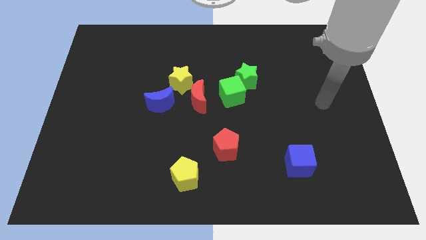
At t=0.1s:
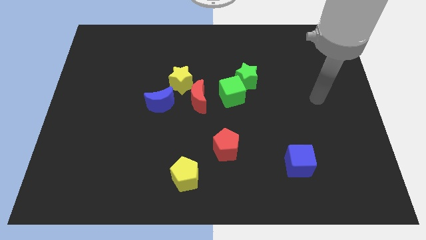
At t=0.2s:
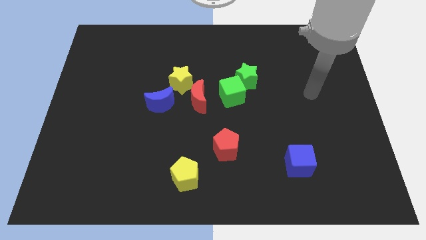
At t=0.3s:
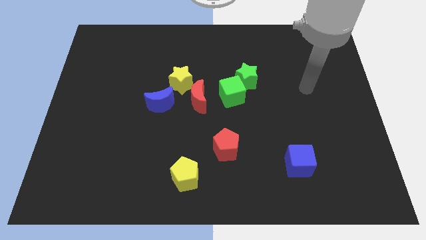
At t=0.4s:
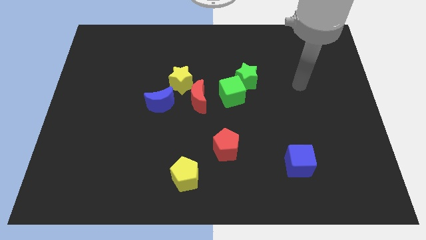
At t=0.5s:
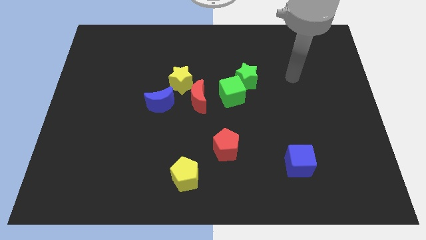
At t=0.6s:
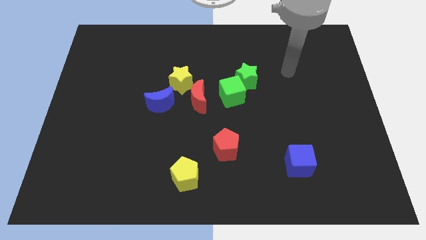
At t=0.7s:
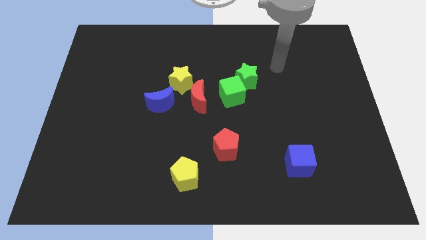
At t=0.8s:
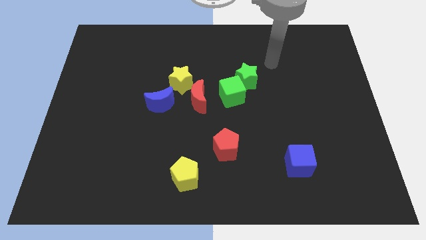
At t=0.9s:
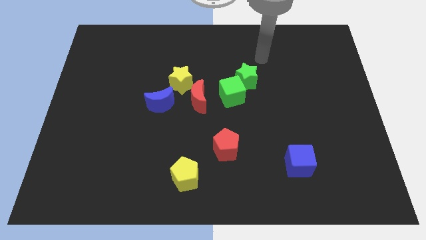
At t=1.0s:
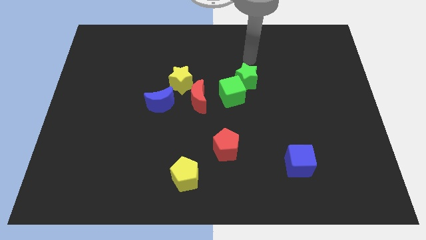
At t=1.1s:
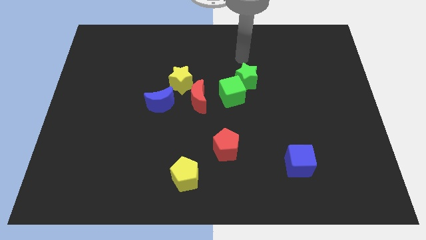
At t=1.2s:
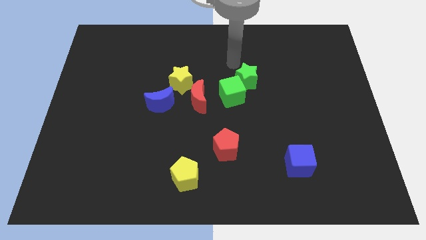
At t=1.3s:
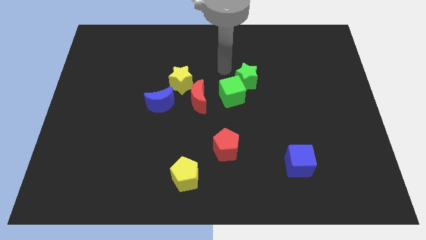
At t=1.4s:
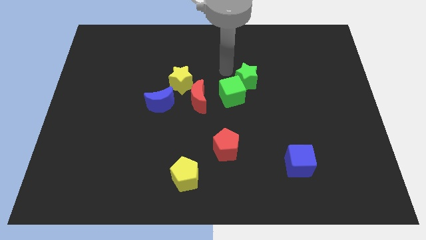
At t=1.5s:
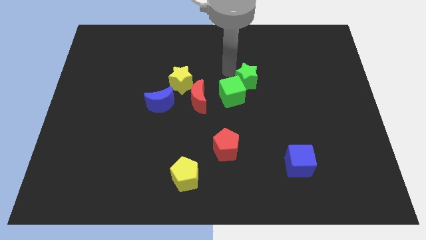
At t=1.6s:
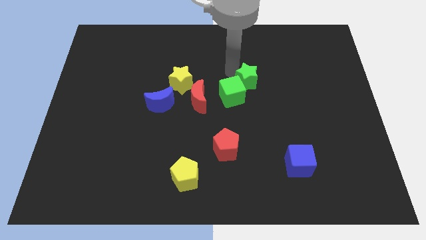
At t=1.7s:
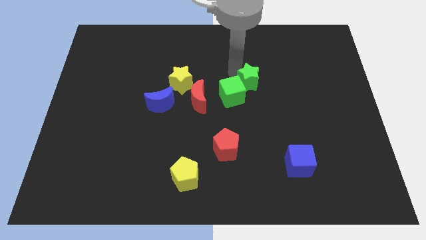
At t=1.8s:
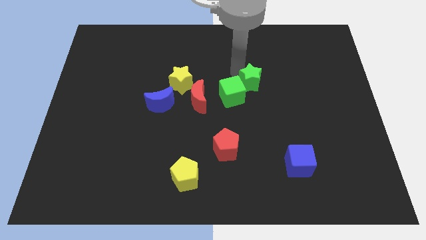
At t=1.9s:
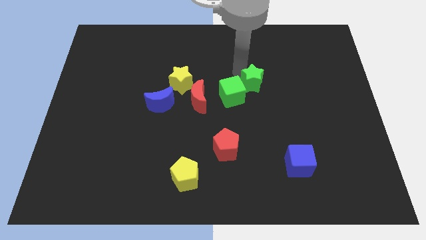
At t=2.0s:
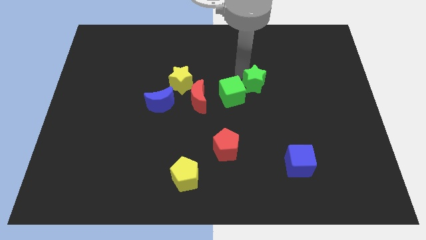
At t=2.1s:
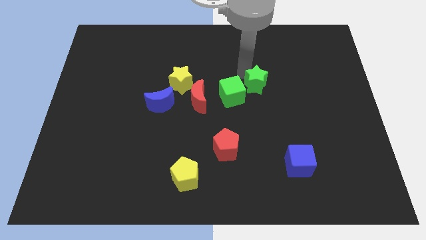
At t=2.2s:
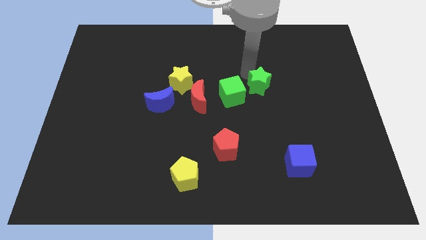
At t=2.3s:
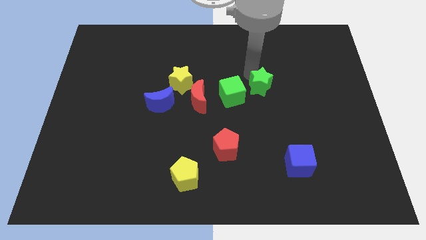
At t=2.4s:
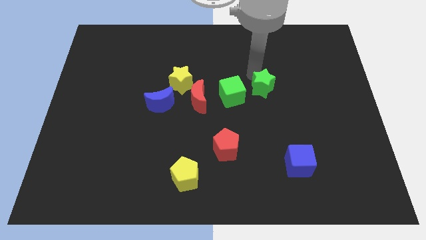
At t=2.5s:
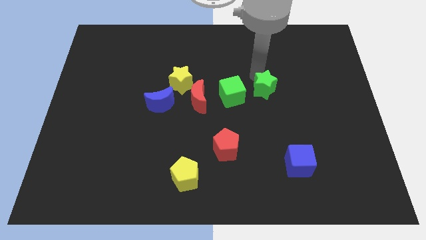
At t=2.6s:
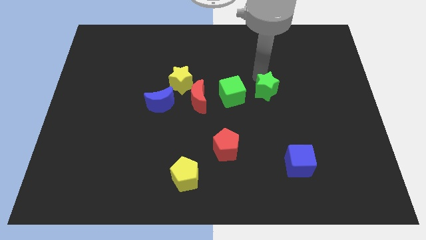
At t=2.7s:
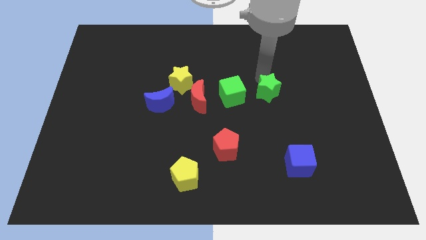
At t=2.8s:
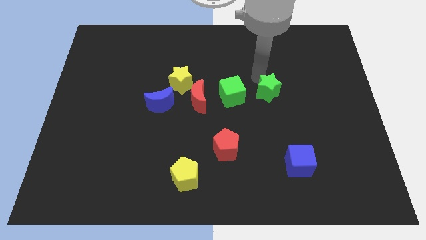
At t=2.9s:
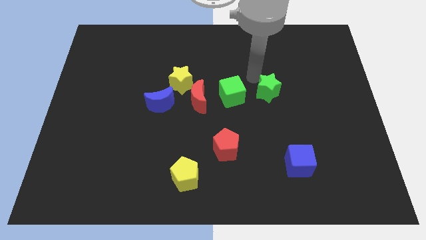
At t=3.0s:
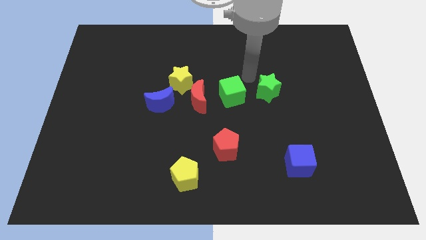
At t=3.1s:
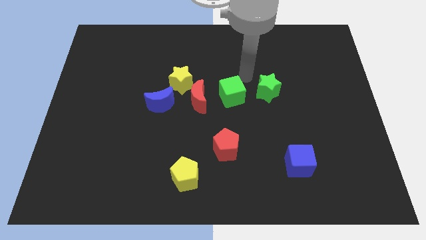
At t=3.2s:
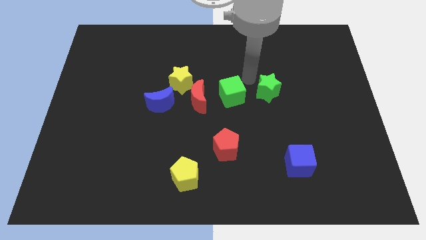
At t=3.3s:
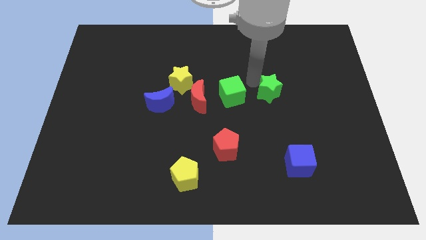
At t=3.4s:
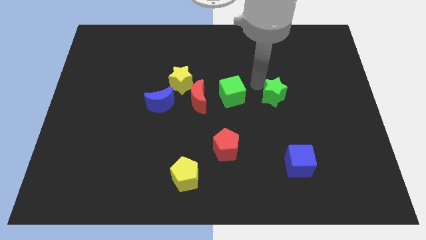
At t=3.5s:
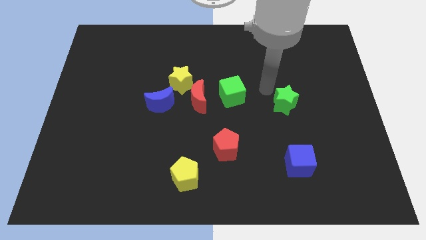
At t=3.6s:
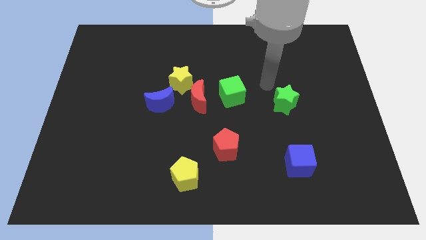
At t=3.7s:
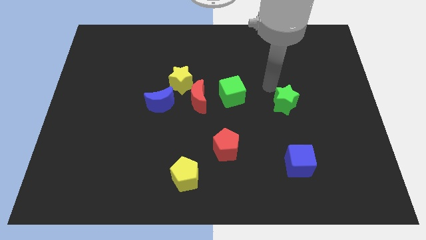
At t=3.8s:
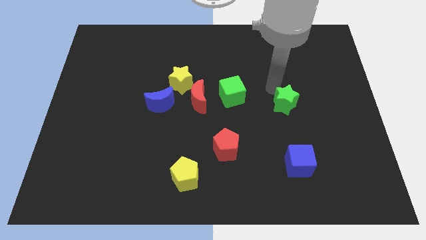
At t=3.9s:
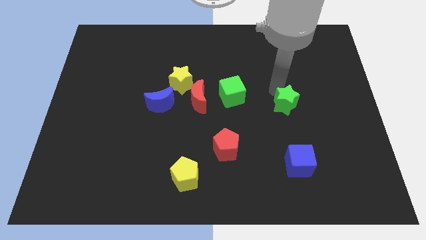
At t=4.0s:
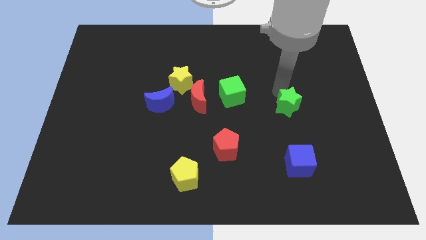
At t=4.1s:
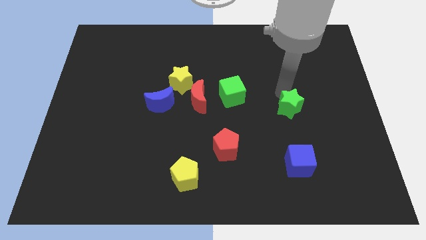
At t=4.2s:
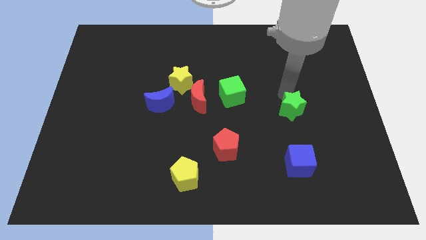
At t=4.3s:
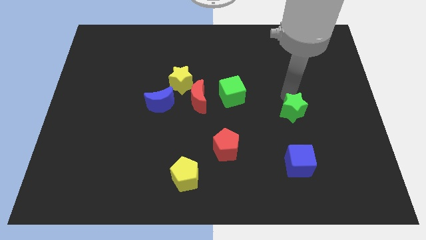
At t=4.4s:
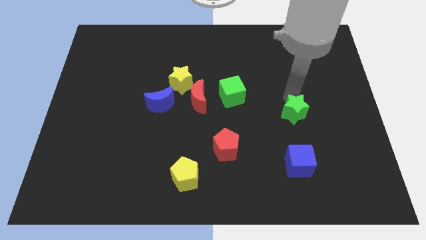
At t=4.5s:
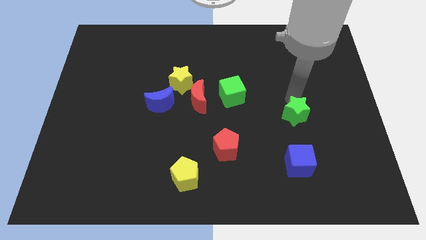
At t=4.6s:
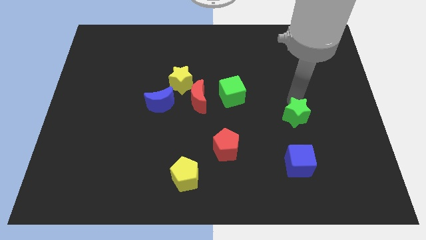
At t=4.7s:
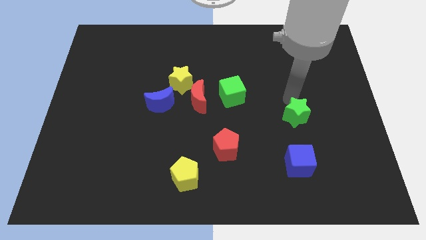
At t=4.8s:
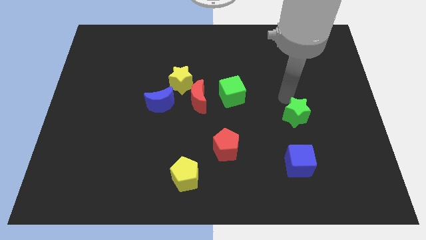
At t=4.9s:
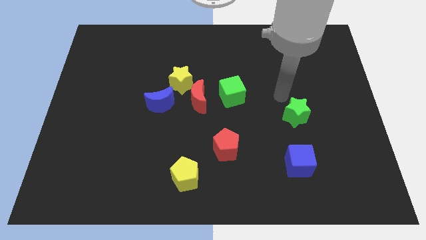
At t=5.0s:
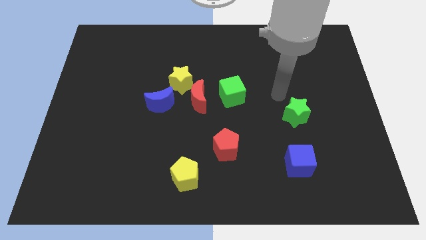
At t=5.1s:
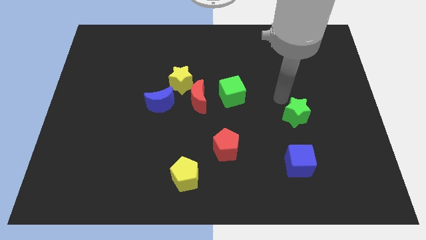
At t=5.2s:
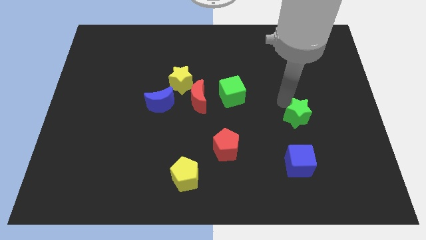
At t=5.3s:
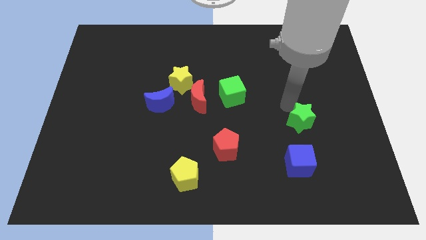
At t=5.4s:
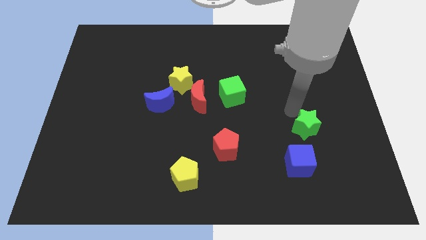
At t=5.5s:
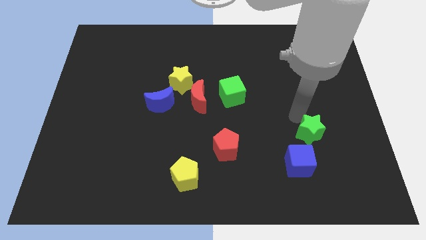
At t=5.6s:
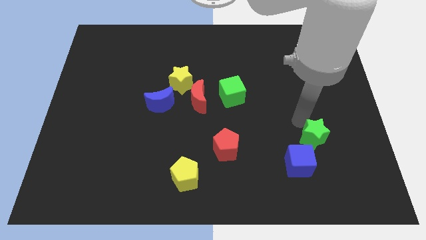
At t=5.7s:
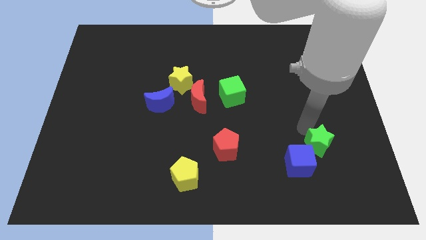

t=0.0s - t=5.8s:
slide the green star to the right of the blue cube

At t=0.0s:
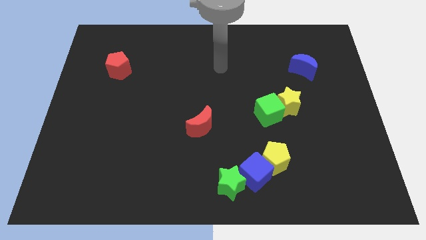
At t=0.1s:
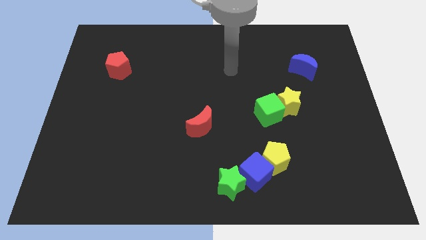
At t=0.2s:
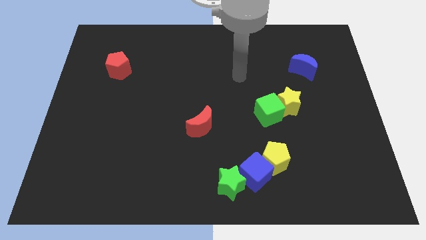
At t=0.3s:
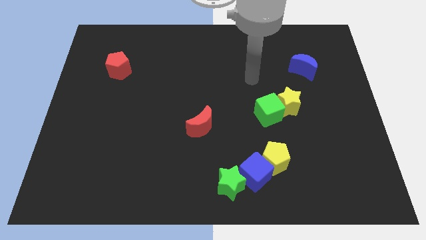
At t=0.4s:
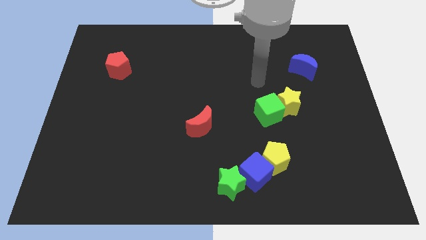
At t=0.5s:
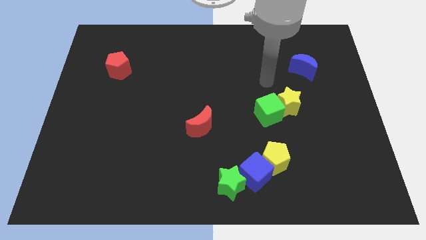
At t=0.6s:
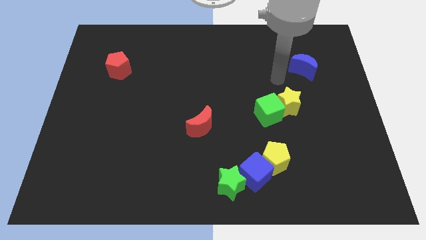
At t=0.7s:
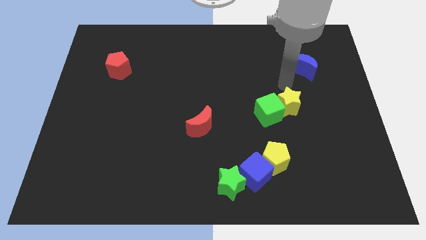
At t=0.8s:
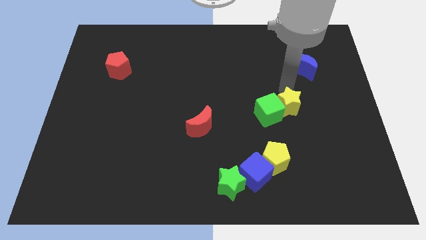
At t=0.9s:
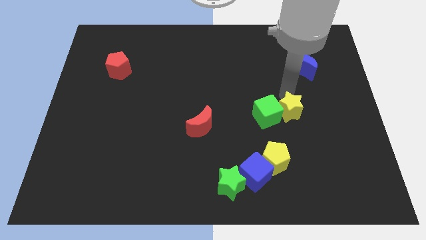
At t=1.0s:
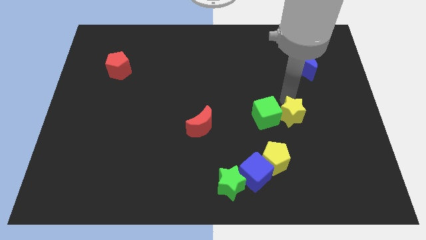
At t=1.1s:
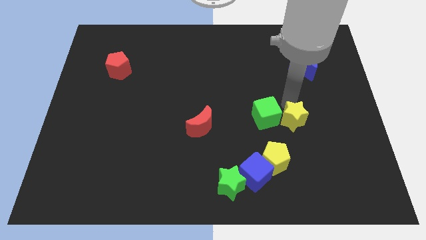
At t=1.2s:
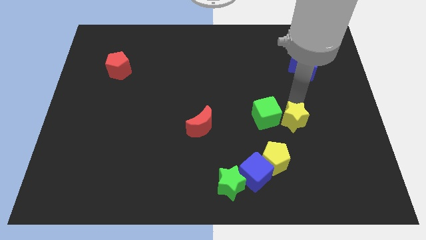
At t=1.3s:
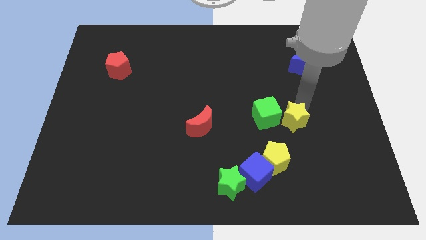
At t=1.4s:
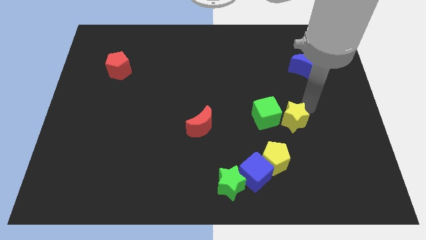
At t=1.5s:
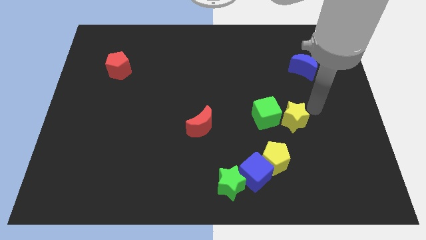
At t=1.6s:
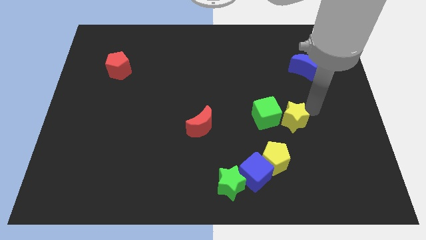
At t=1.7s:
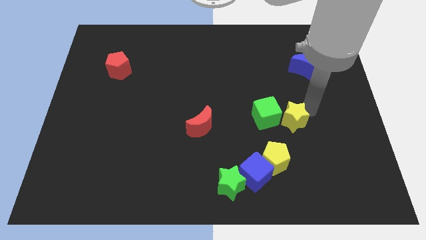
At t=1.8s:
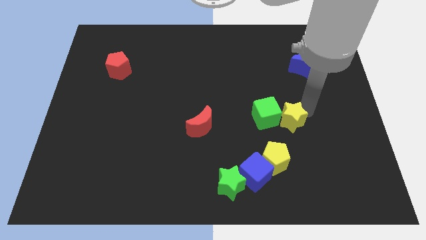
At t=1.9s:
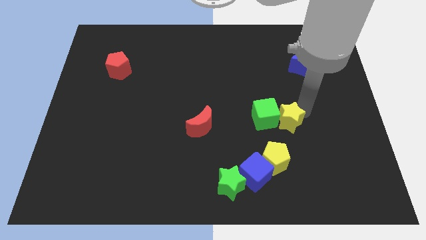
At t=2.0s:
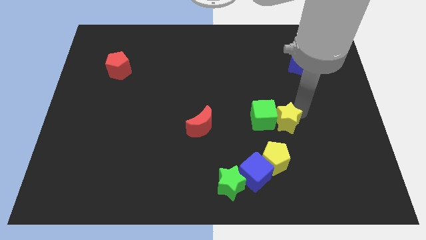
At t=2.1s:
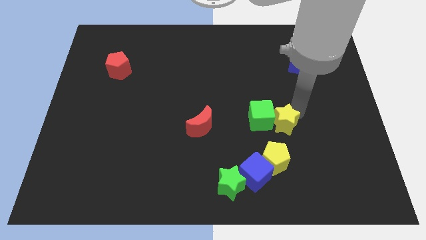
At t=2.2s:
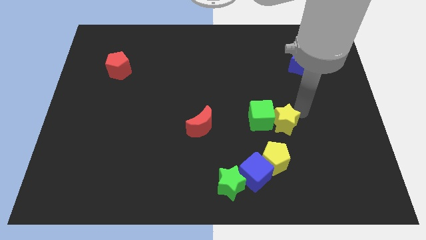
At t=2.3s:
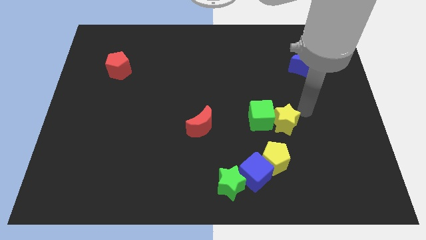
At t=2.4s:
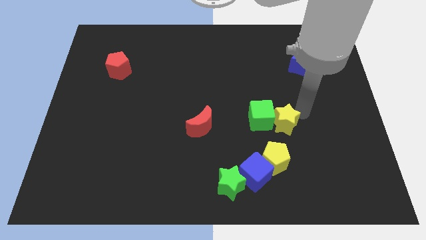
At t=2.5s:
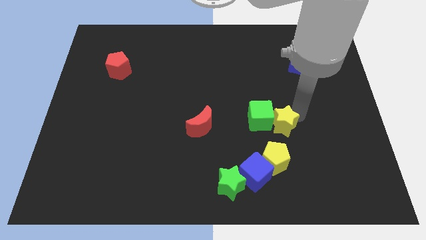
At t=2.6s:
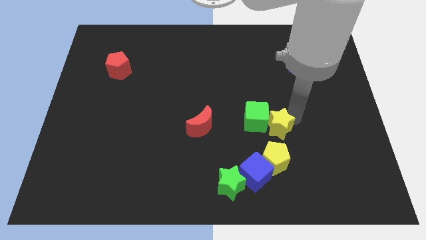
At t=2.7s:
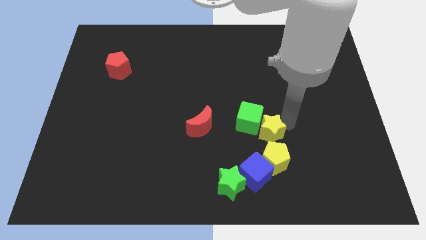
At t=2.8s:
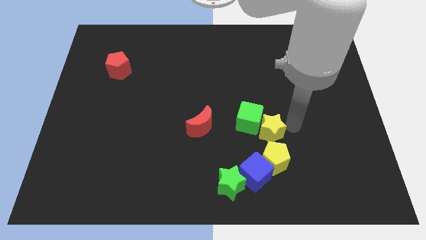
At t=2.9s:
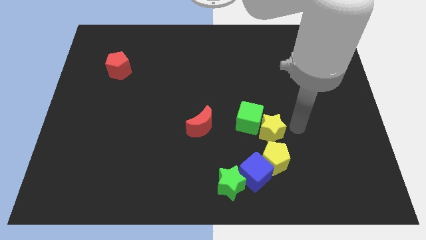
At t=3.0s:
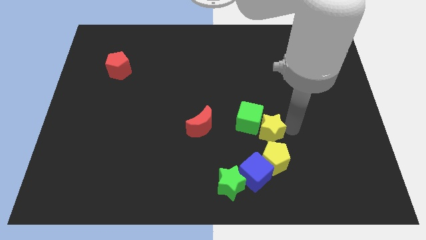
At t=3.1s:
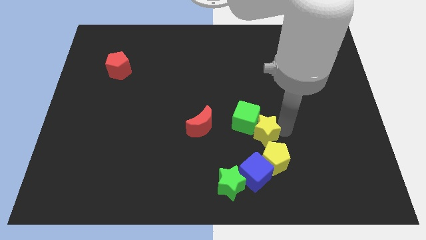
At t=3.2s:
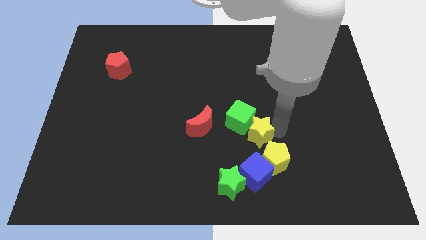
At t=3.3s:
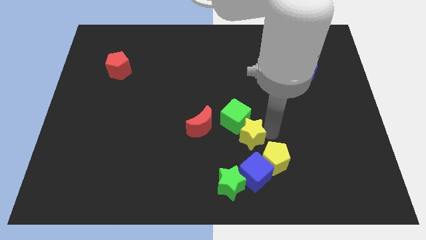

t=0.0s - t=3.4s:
push the yellow star above the green star
